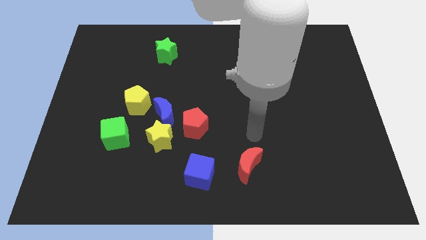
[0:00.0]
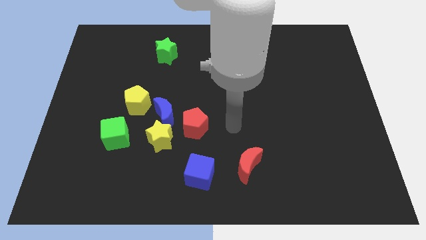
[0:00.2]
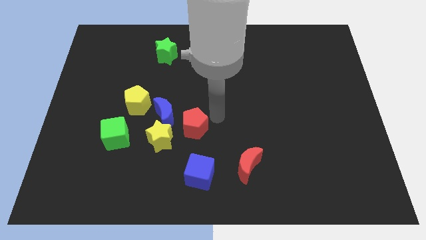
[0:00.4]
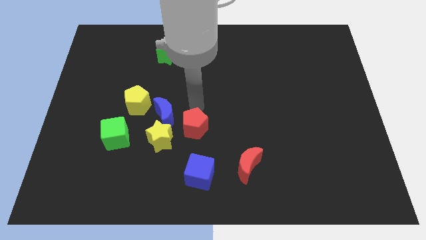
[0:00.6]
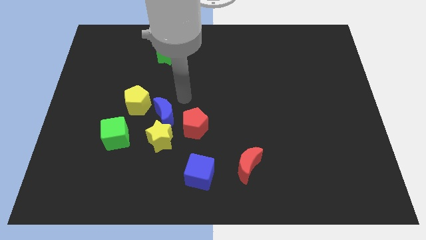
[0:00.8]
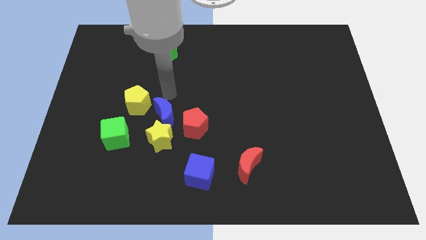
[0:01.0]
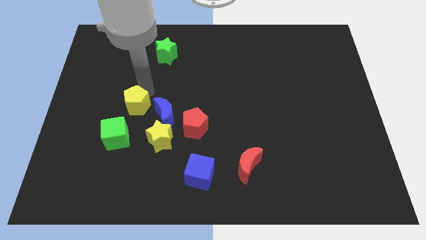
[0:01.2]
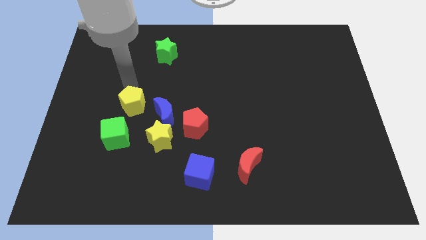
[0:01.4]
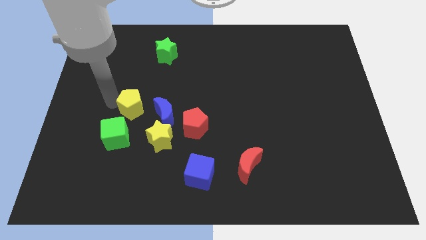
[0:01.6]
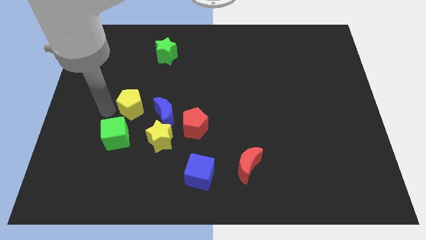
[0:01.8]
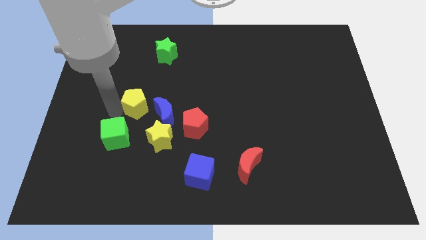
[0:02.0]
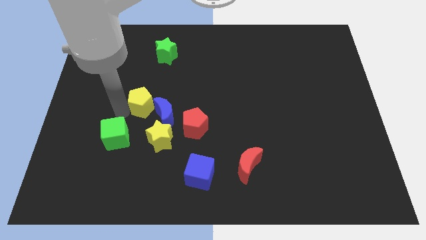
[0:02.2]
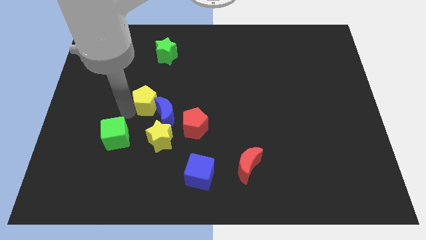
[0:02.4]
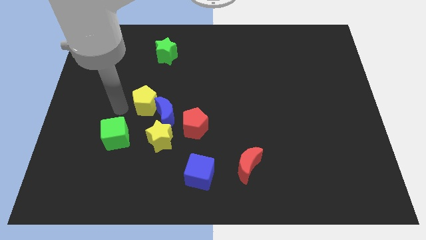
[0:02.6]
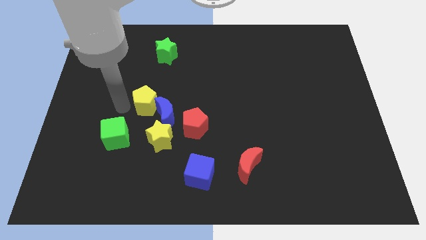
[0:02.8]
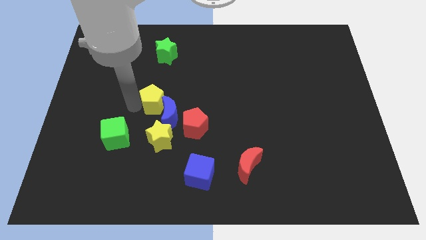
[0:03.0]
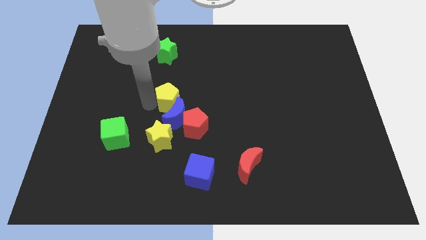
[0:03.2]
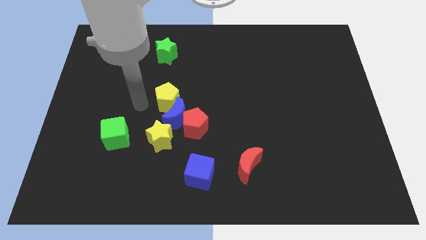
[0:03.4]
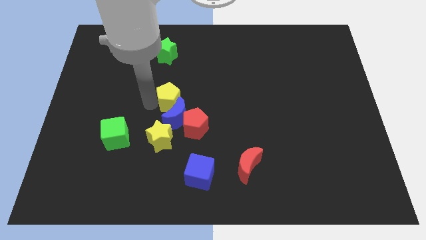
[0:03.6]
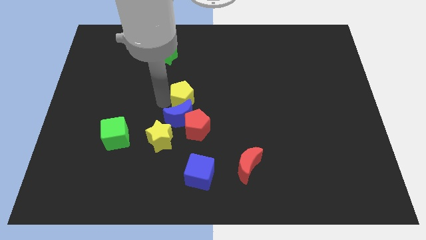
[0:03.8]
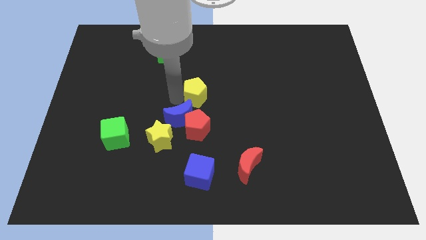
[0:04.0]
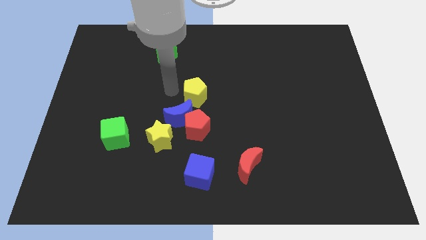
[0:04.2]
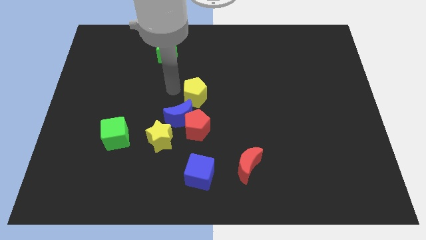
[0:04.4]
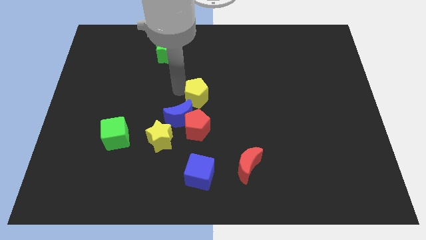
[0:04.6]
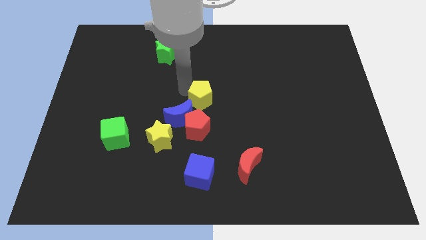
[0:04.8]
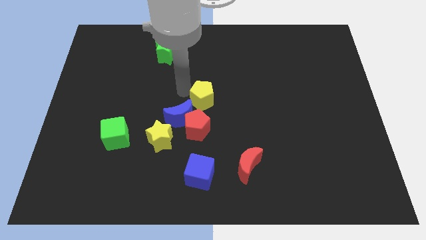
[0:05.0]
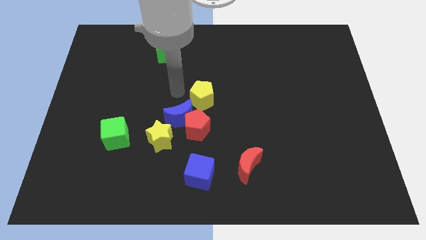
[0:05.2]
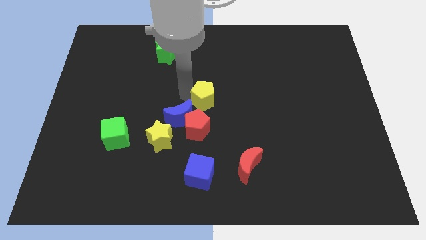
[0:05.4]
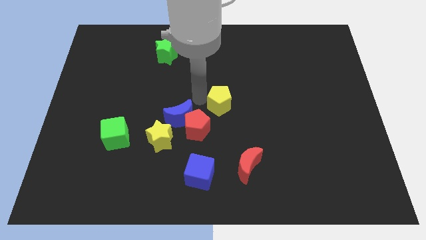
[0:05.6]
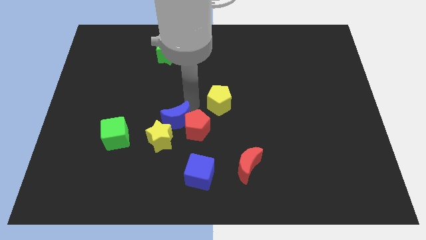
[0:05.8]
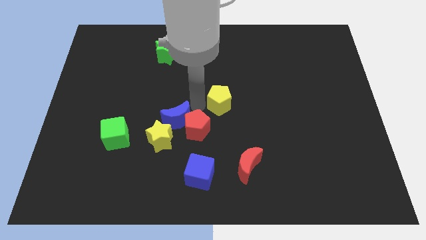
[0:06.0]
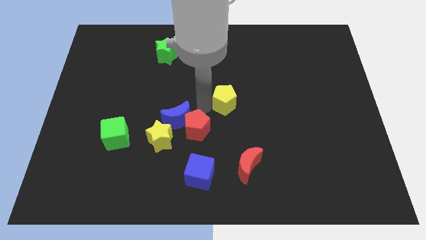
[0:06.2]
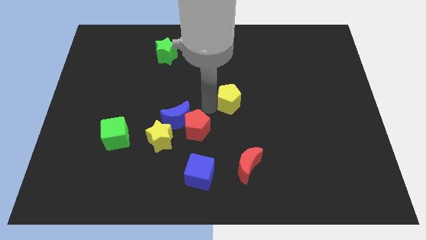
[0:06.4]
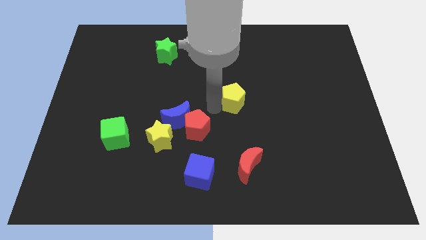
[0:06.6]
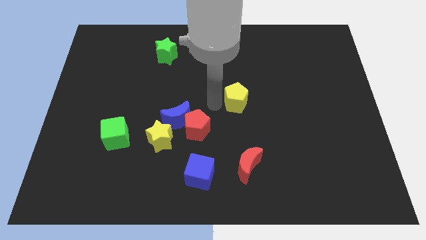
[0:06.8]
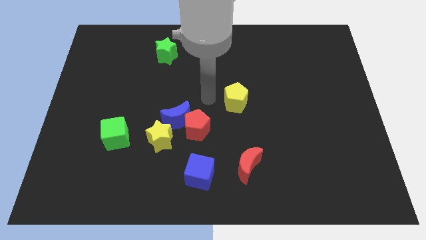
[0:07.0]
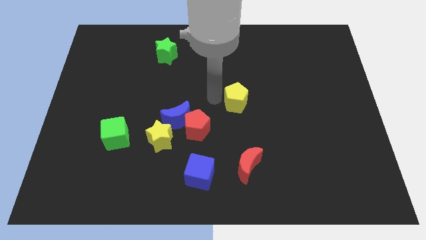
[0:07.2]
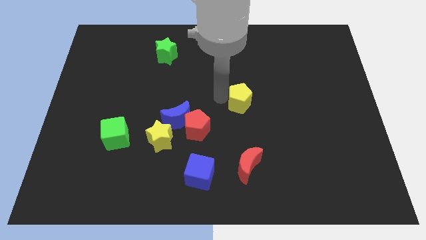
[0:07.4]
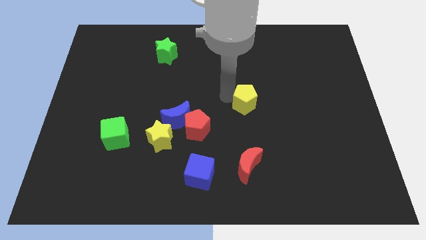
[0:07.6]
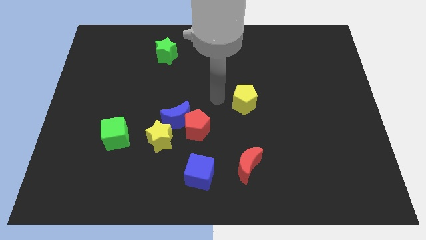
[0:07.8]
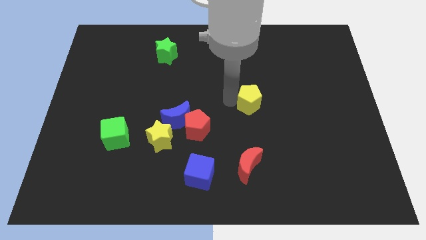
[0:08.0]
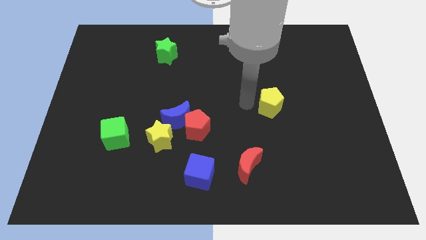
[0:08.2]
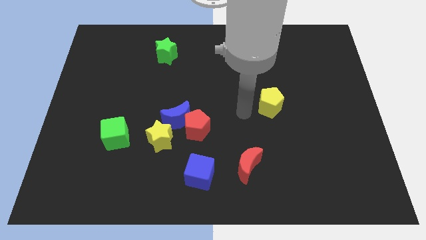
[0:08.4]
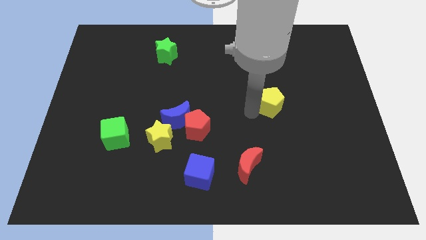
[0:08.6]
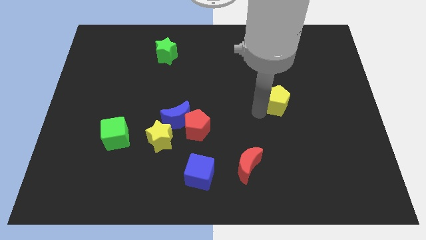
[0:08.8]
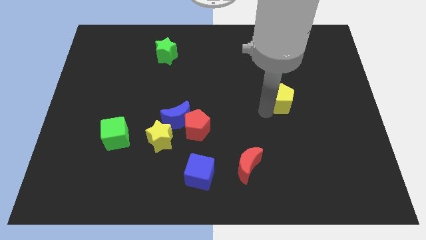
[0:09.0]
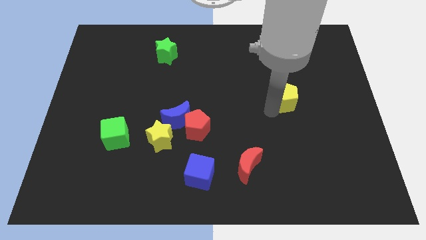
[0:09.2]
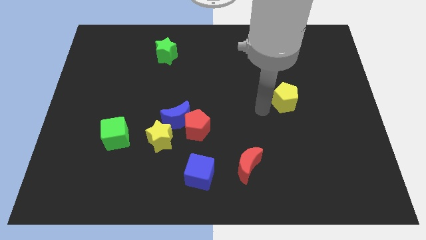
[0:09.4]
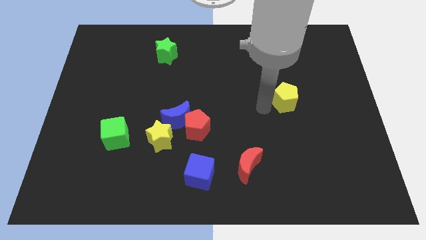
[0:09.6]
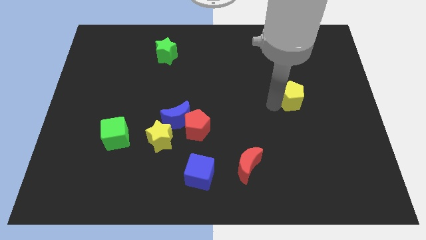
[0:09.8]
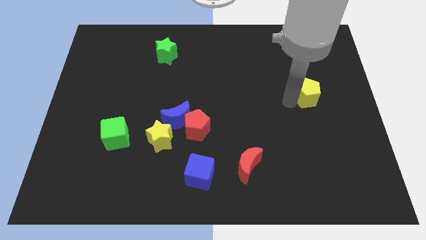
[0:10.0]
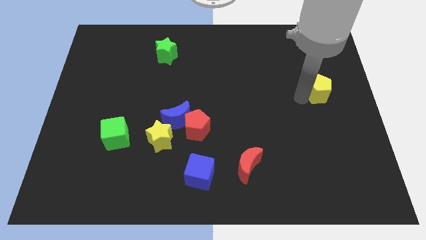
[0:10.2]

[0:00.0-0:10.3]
move the yellow pentagon to the center right

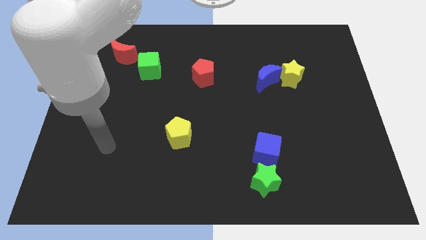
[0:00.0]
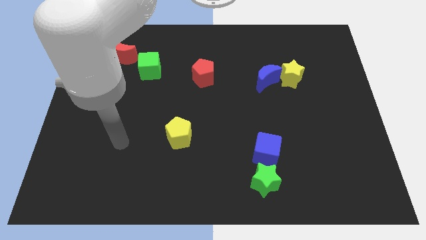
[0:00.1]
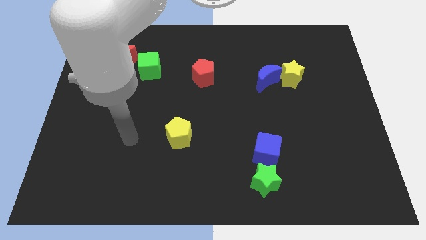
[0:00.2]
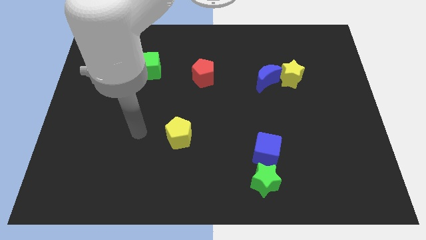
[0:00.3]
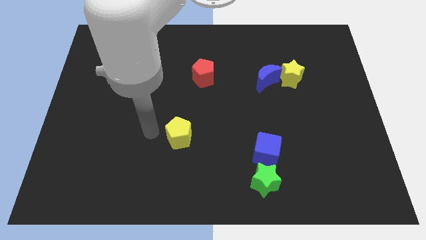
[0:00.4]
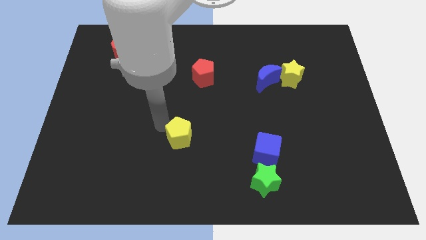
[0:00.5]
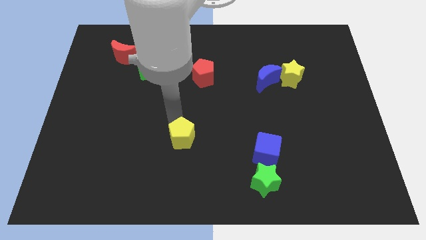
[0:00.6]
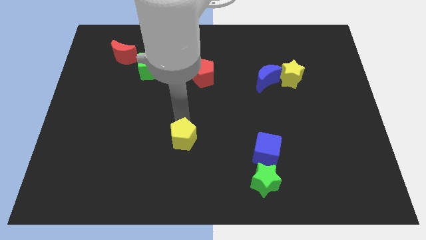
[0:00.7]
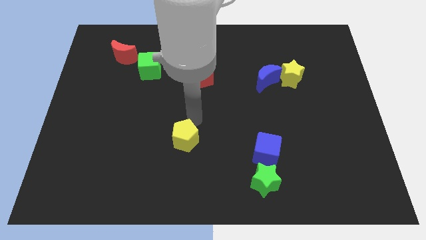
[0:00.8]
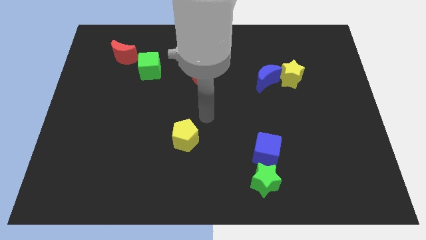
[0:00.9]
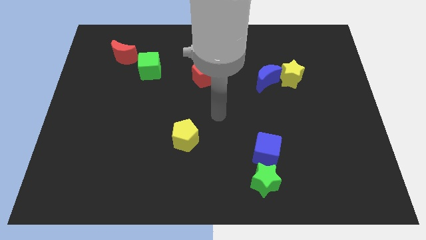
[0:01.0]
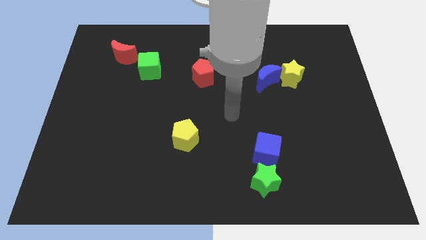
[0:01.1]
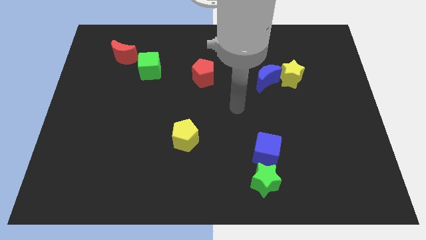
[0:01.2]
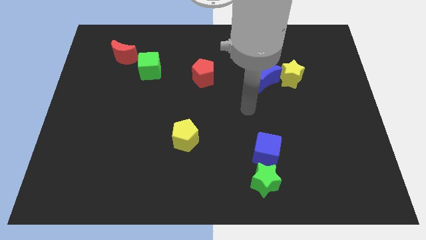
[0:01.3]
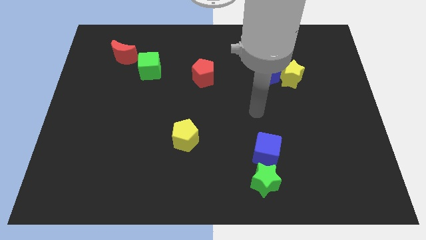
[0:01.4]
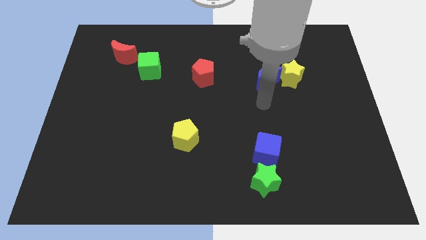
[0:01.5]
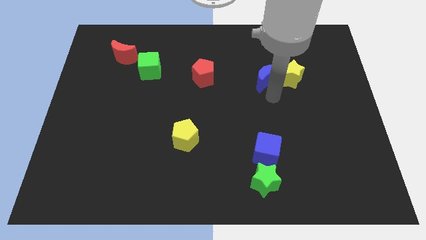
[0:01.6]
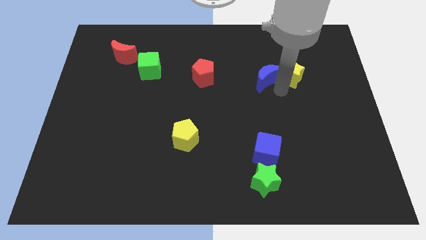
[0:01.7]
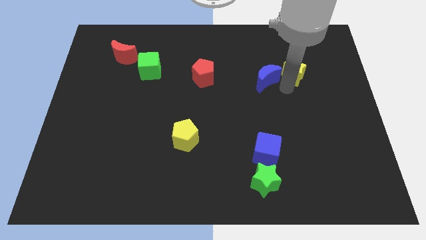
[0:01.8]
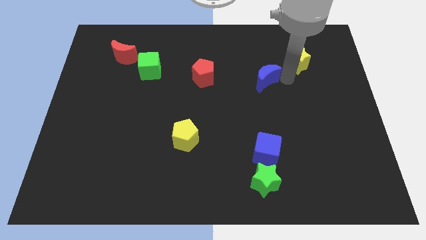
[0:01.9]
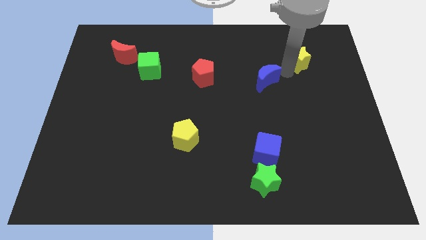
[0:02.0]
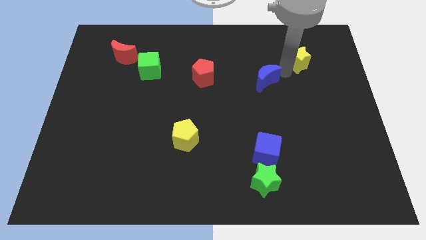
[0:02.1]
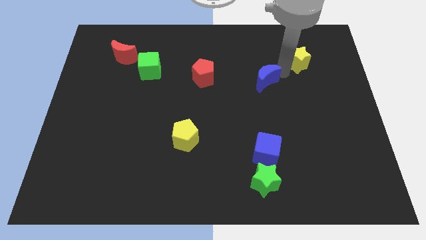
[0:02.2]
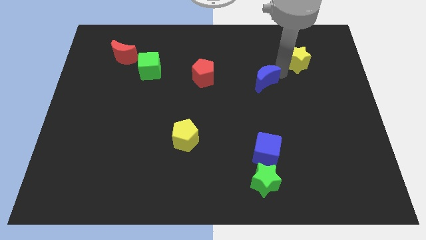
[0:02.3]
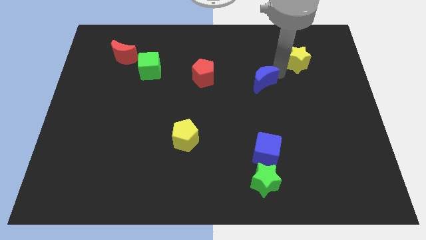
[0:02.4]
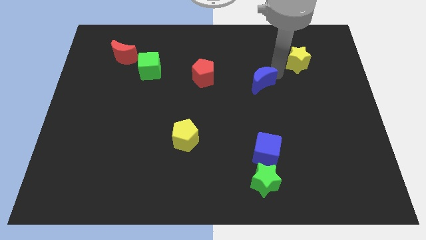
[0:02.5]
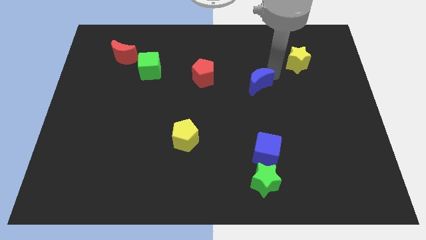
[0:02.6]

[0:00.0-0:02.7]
put the blue moon to the center
